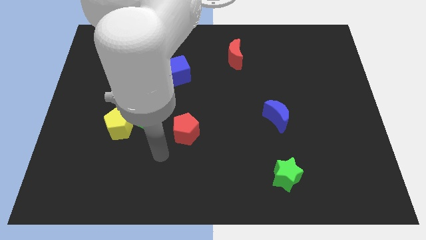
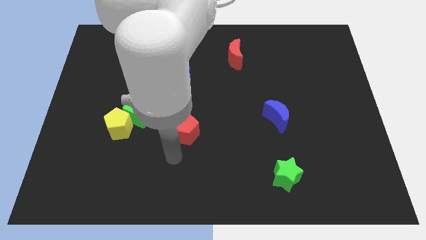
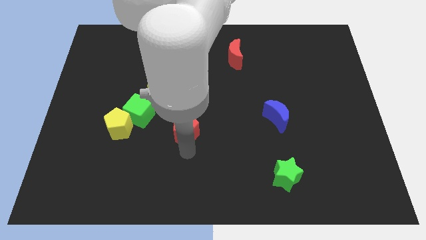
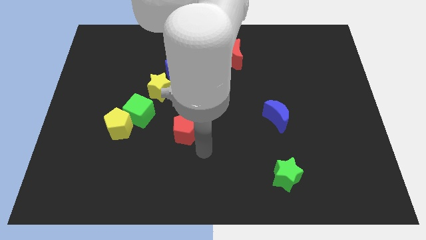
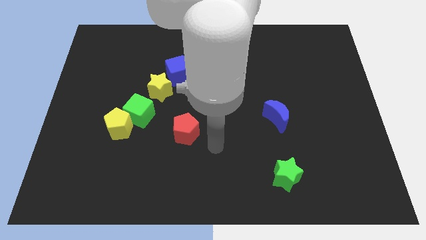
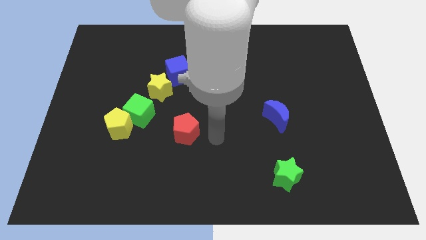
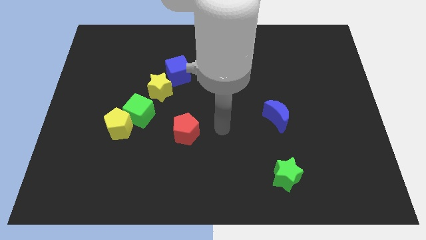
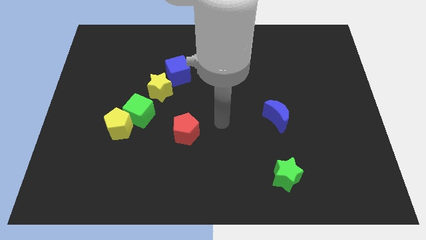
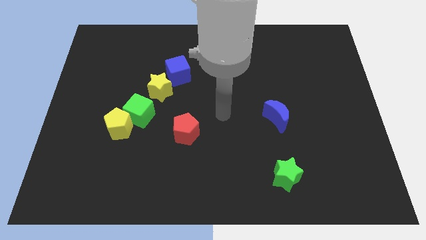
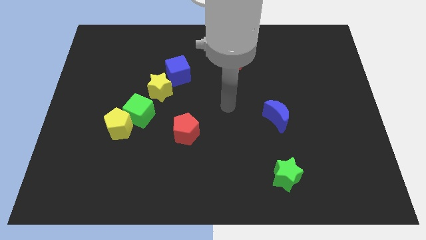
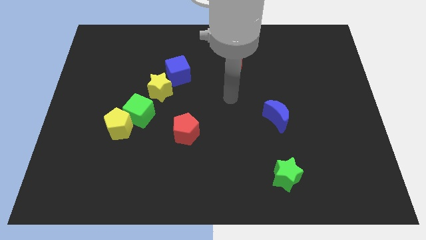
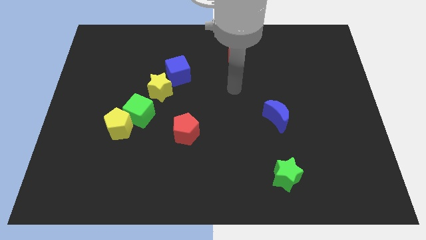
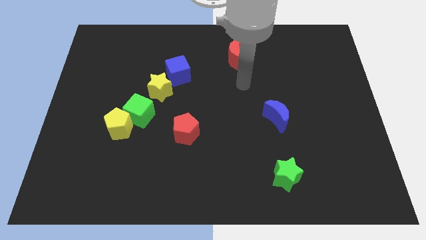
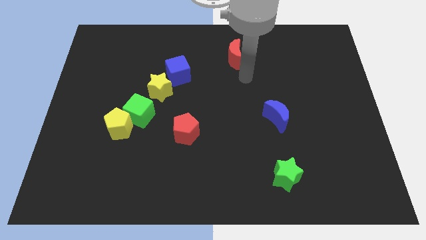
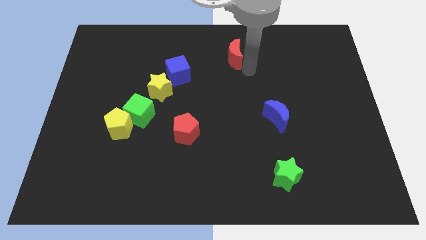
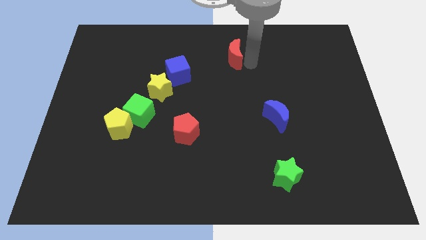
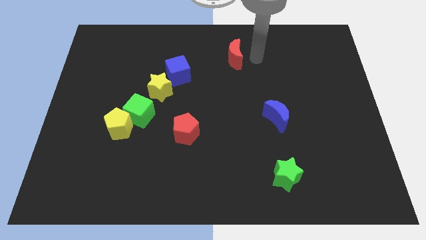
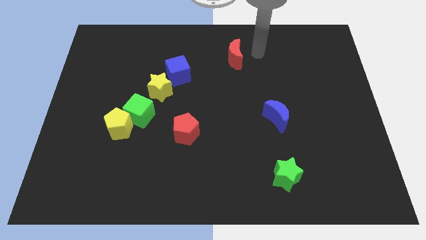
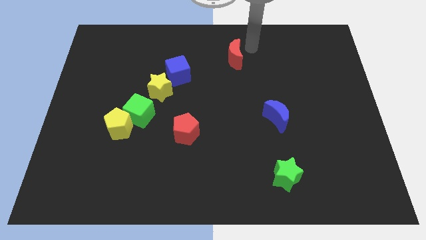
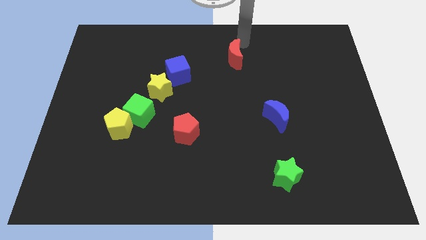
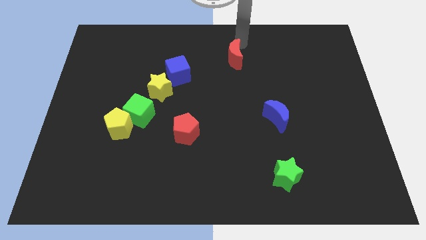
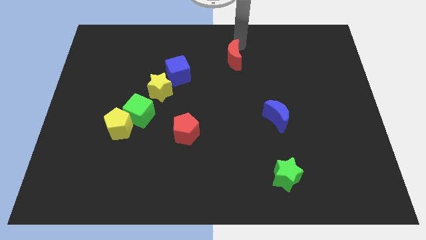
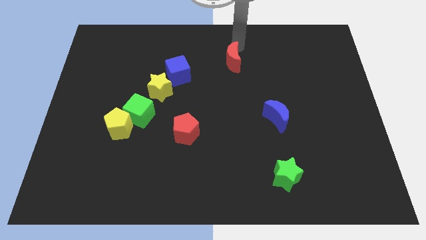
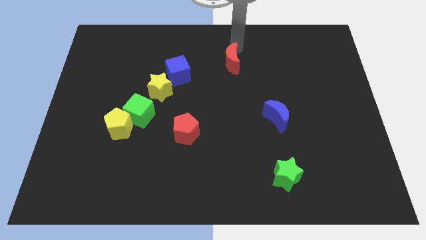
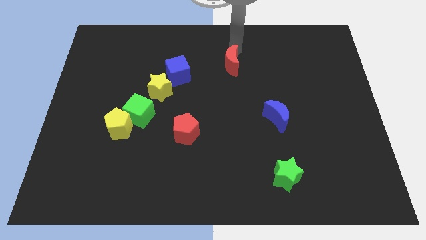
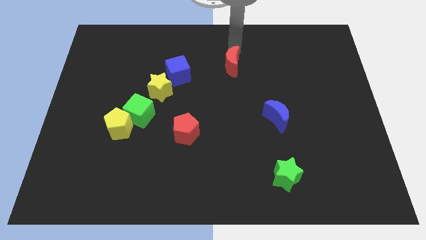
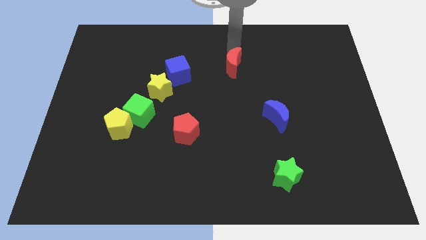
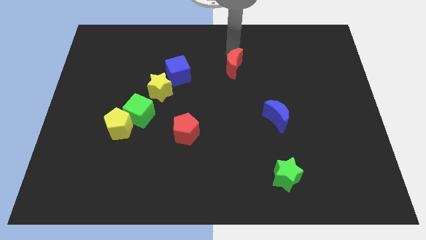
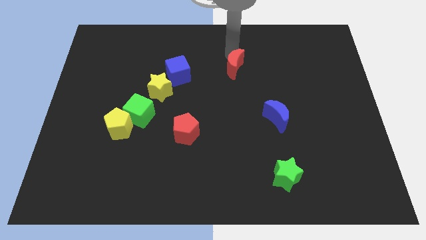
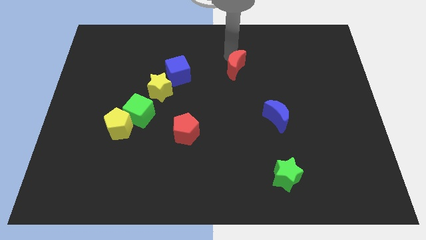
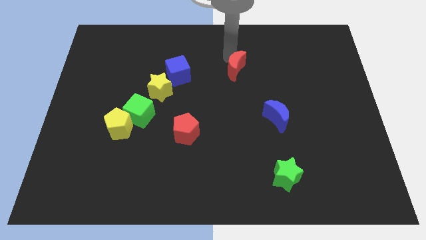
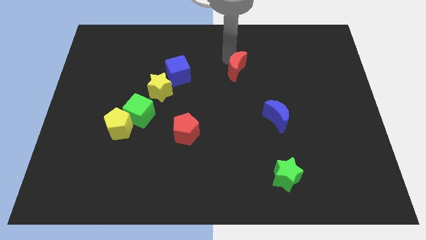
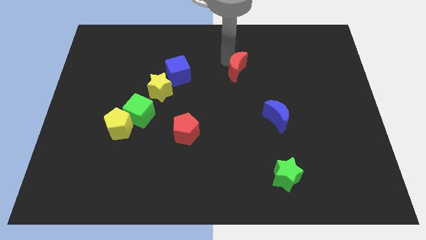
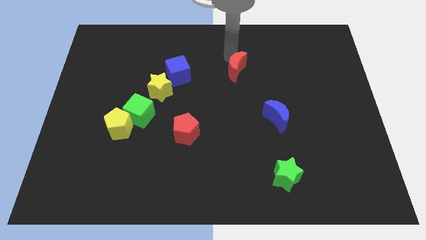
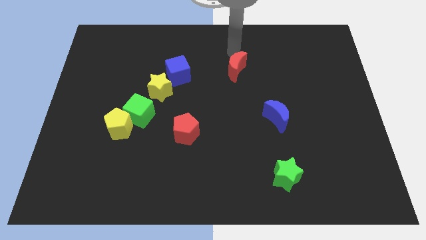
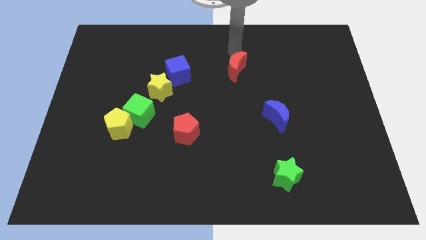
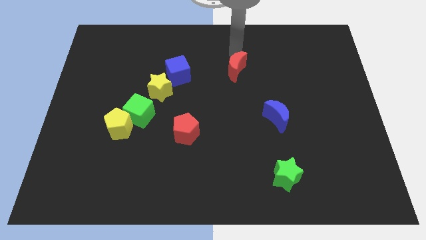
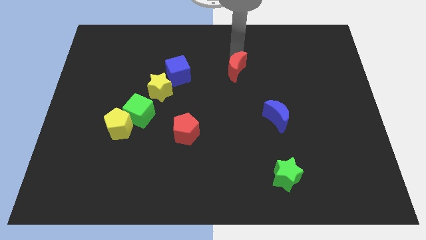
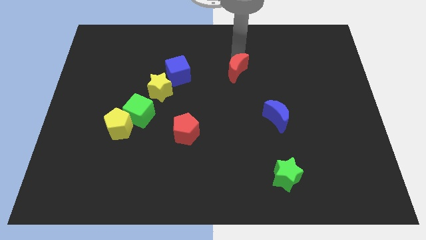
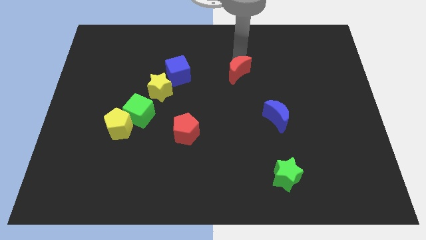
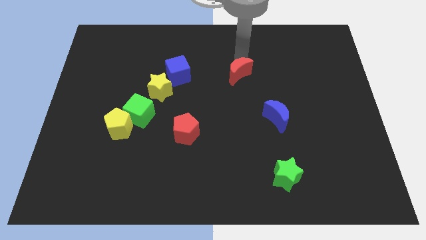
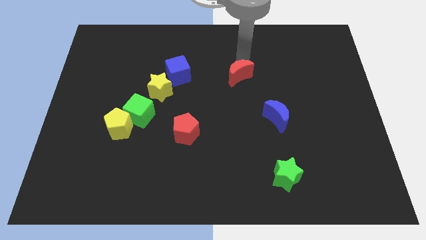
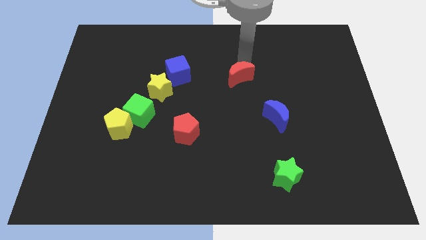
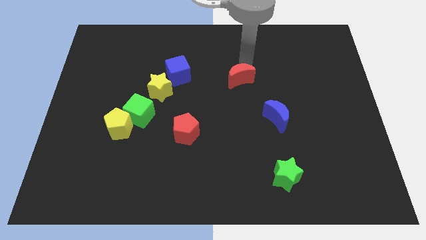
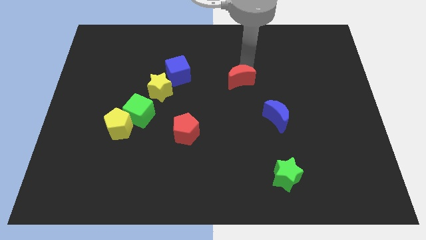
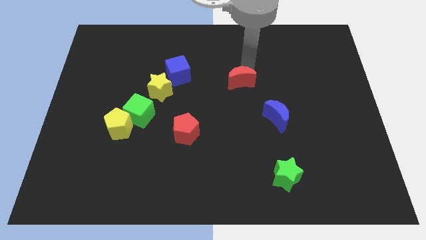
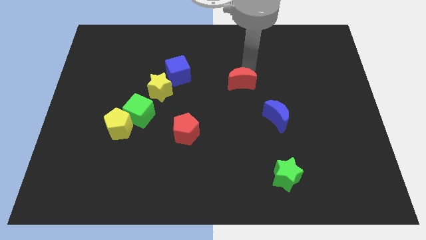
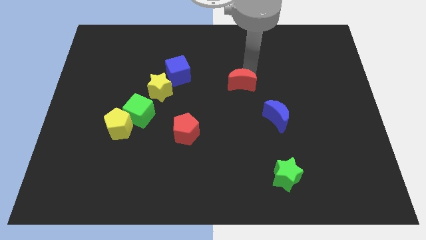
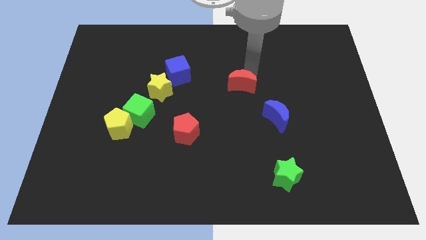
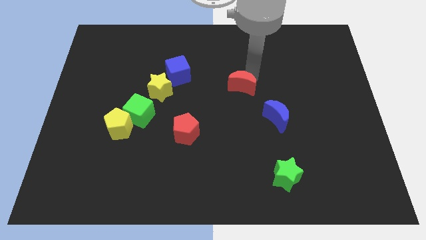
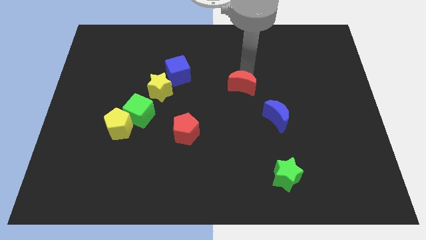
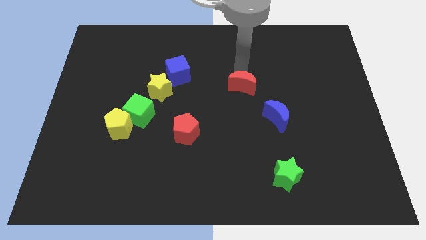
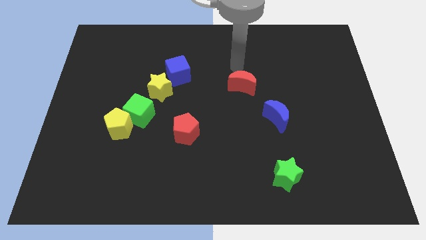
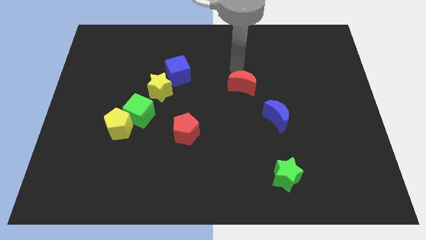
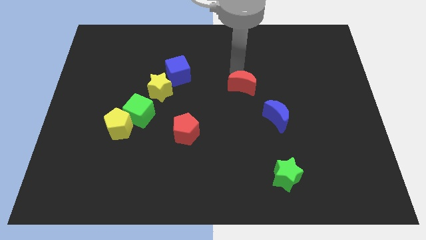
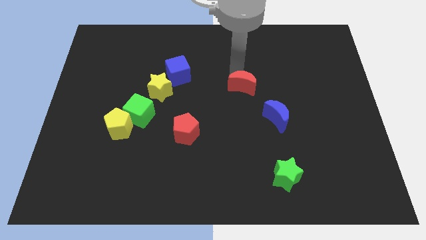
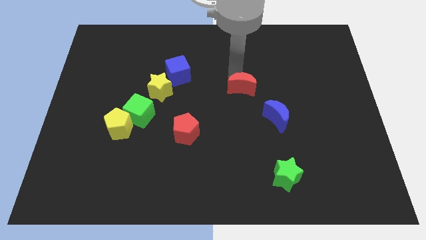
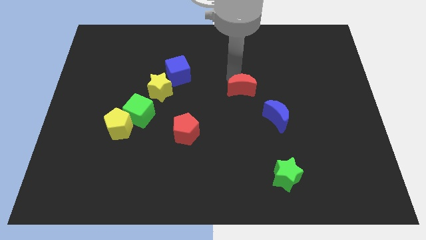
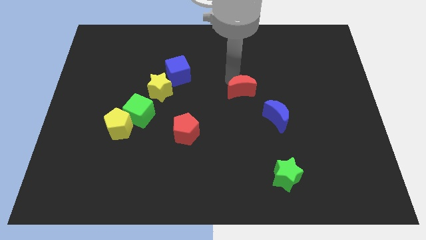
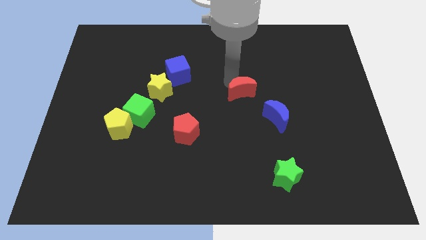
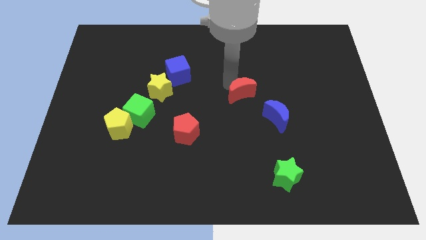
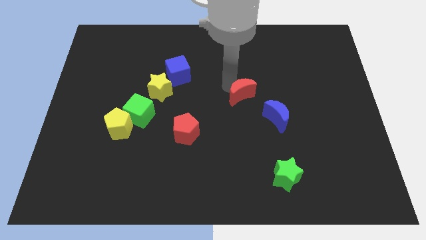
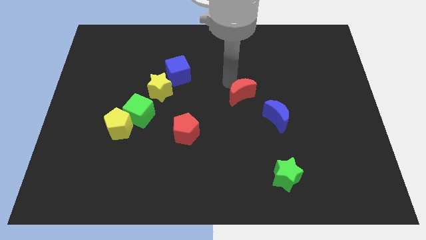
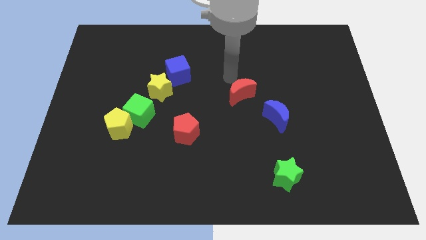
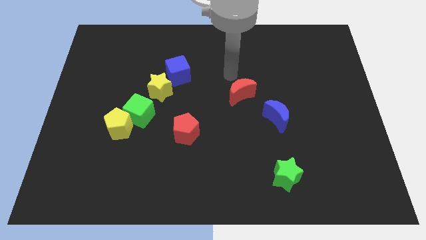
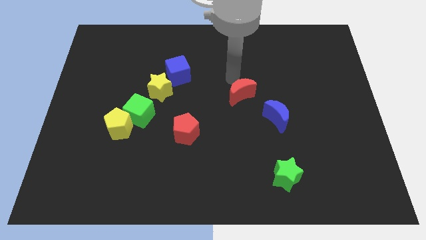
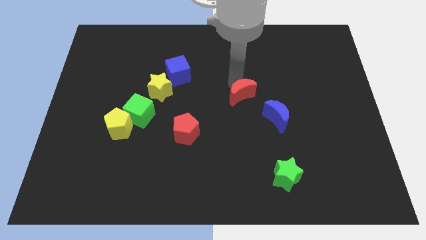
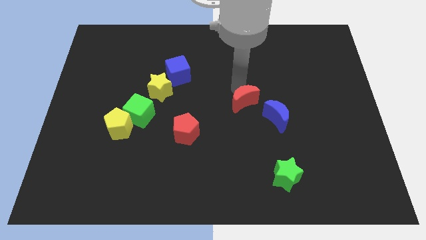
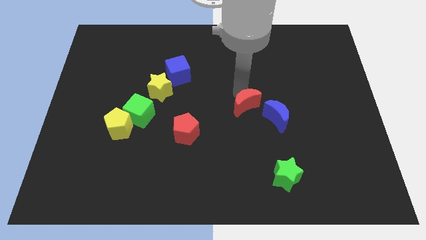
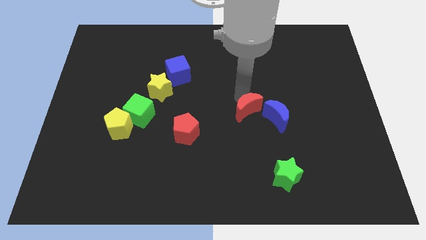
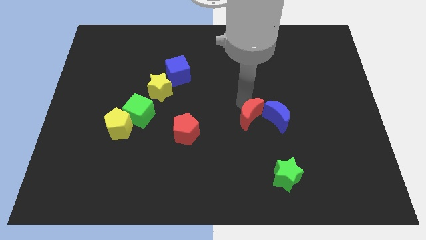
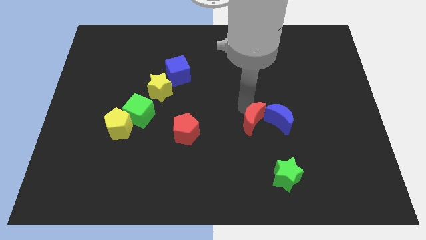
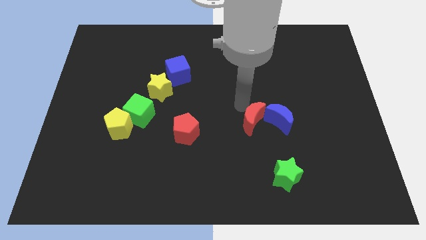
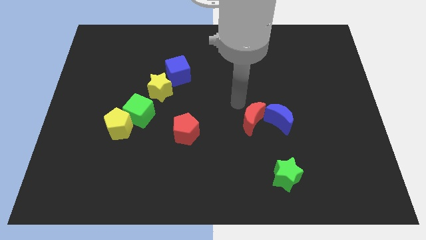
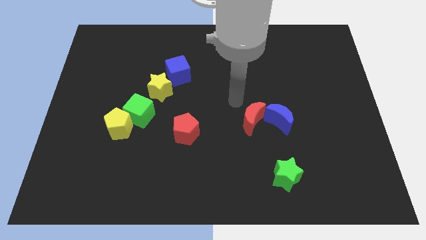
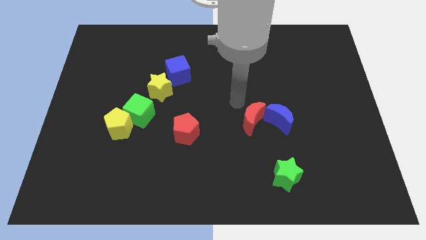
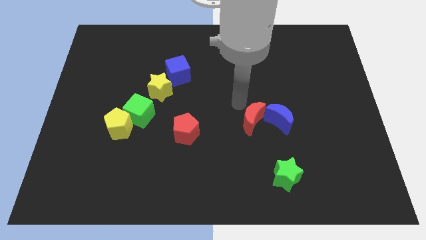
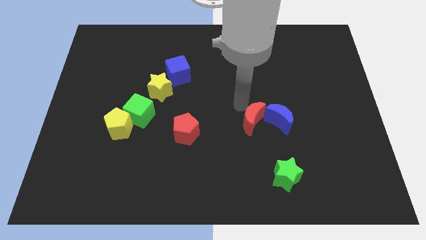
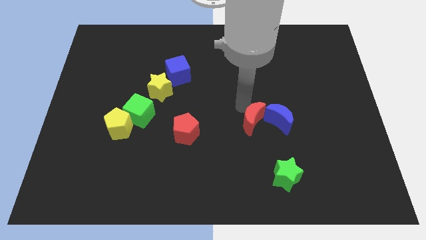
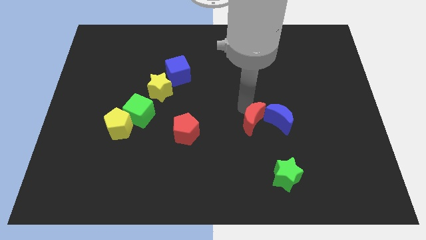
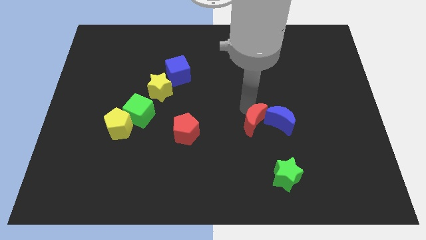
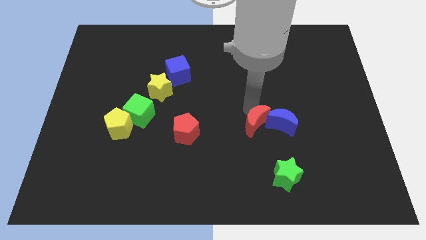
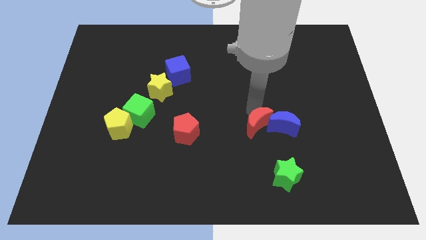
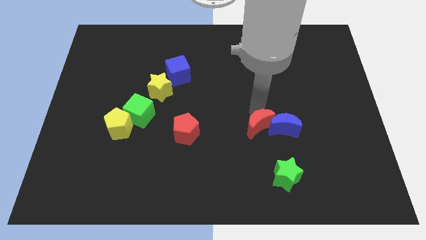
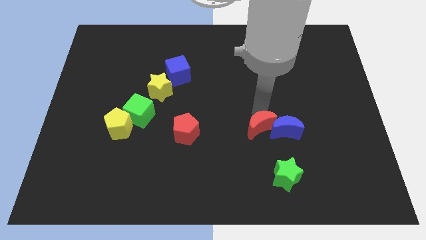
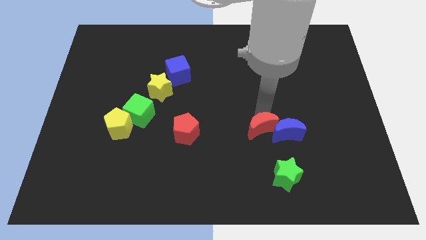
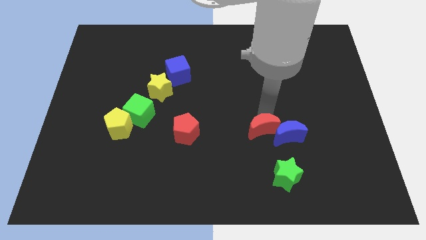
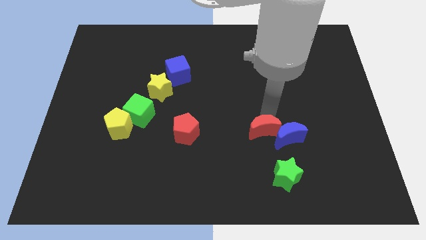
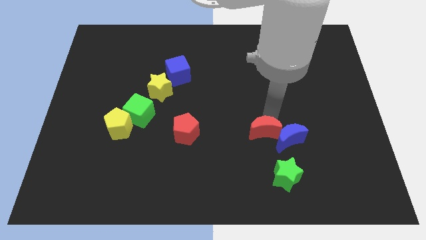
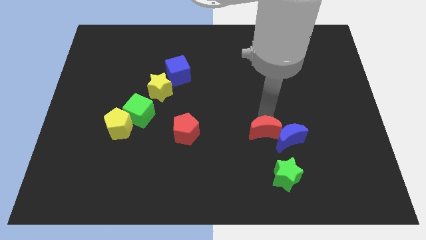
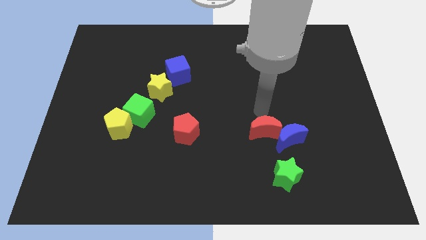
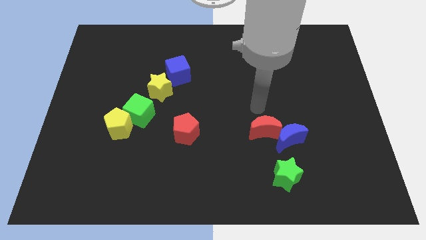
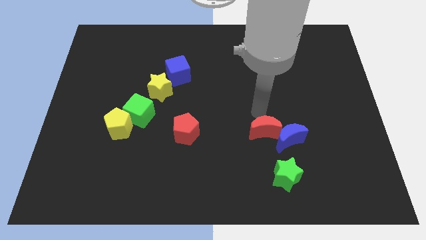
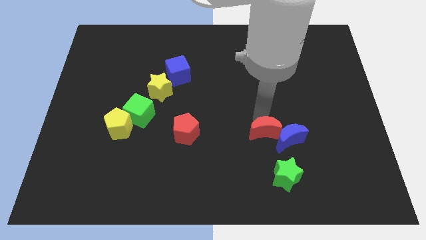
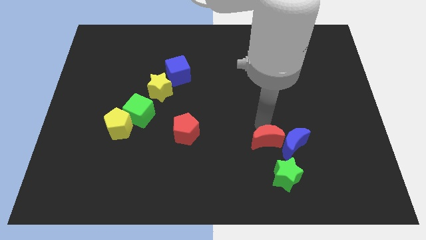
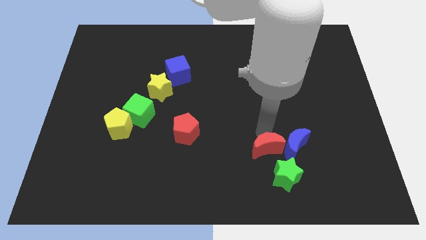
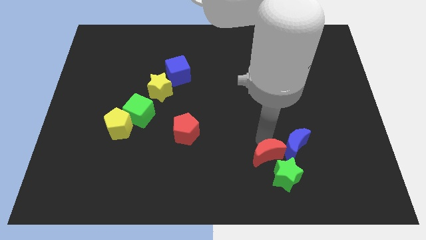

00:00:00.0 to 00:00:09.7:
push the red moon close to the green star
